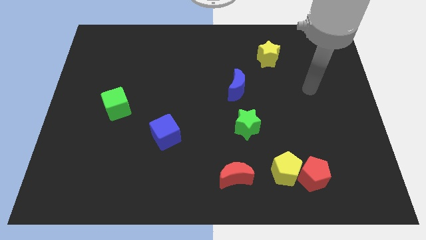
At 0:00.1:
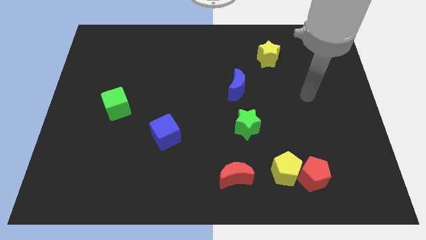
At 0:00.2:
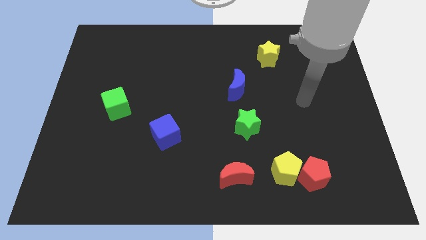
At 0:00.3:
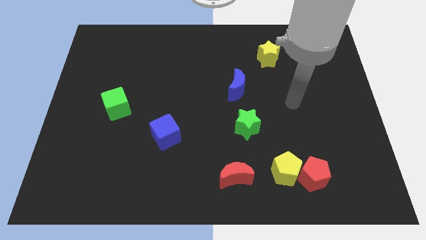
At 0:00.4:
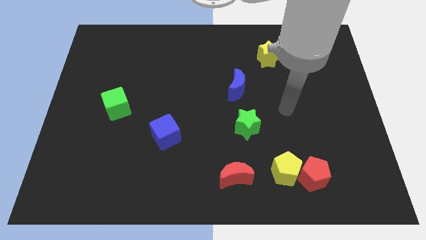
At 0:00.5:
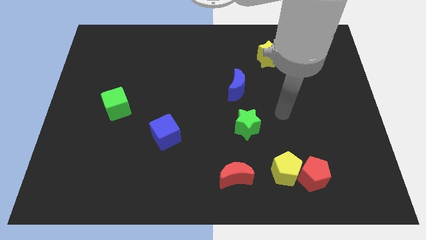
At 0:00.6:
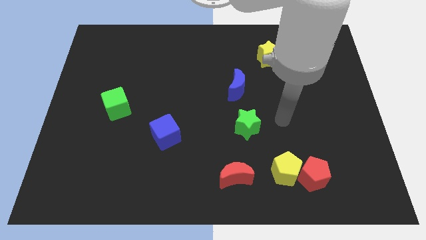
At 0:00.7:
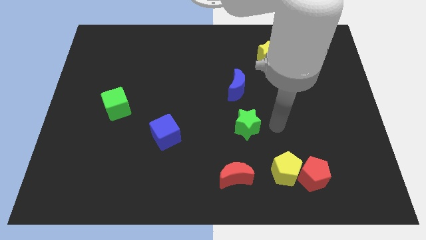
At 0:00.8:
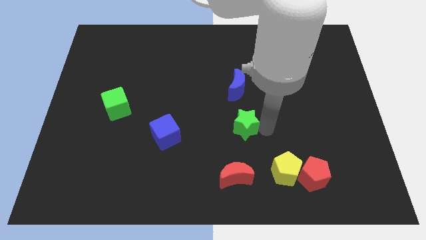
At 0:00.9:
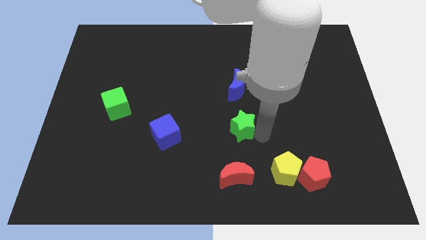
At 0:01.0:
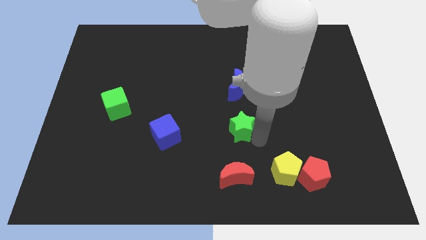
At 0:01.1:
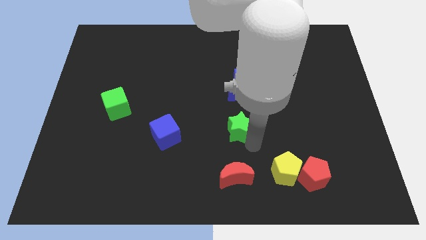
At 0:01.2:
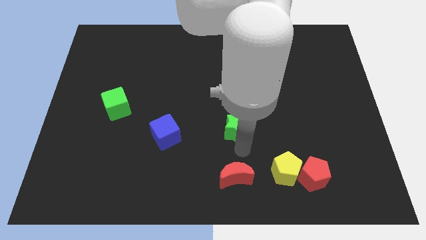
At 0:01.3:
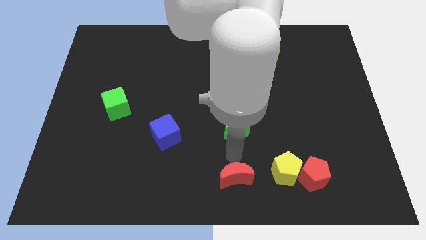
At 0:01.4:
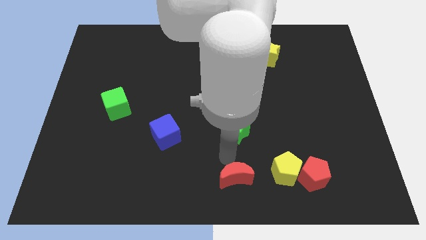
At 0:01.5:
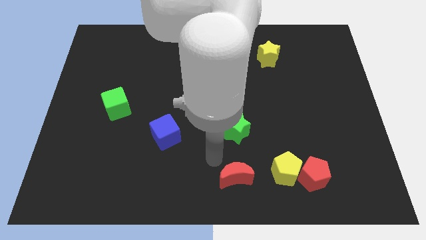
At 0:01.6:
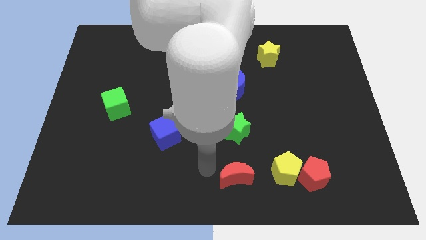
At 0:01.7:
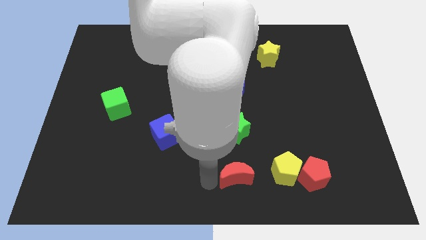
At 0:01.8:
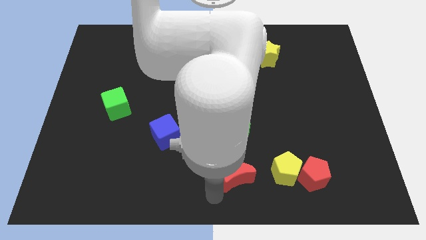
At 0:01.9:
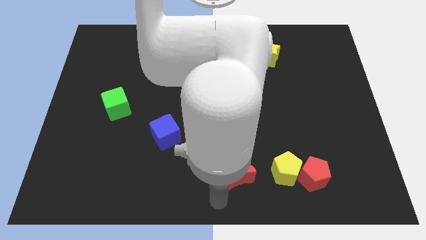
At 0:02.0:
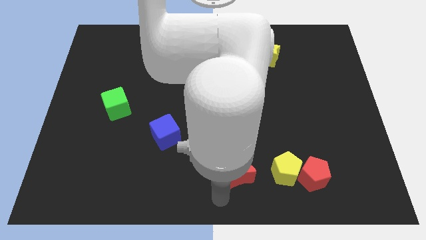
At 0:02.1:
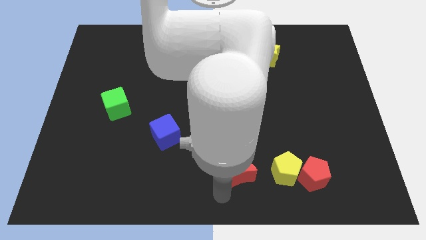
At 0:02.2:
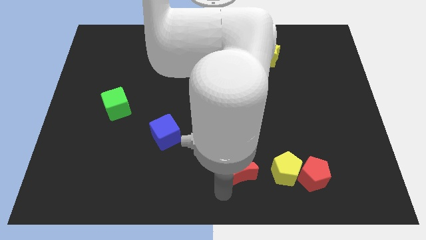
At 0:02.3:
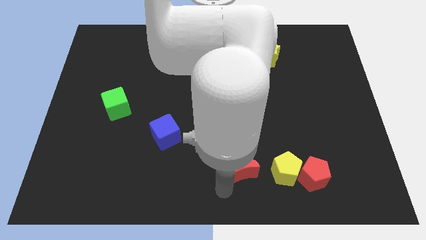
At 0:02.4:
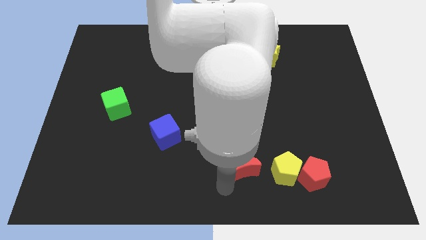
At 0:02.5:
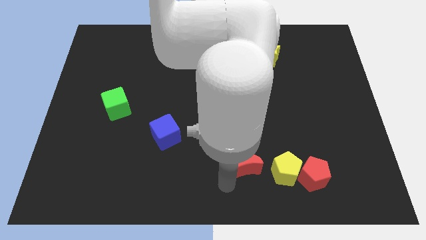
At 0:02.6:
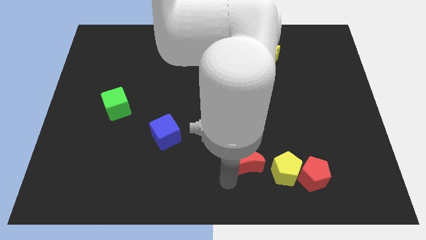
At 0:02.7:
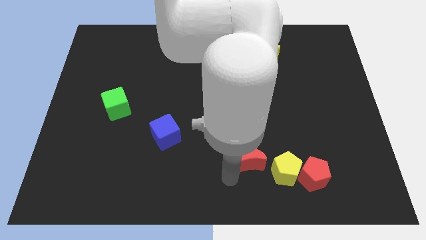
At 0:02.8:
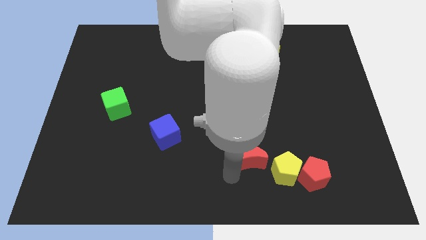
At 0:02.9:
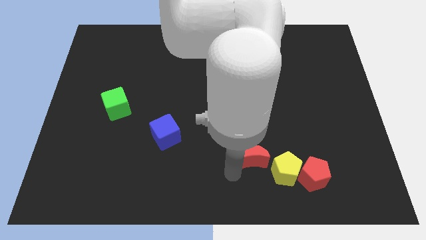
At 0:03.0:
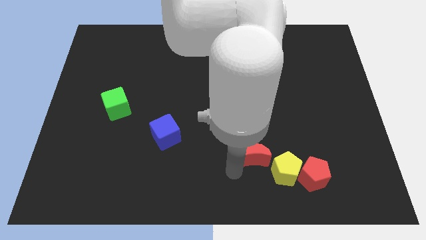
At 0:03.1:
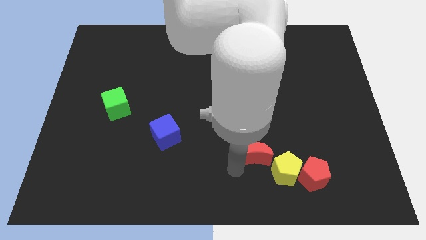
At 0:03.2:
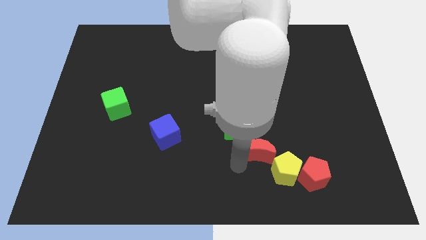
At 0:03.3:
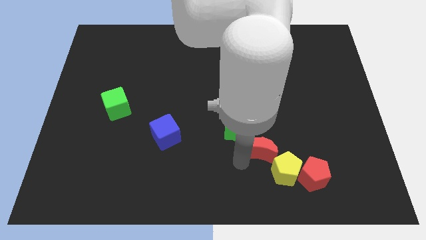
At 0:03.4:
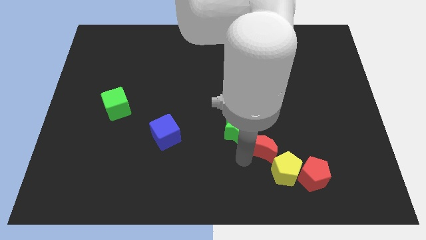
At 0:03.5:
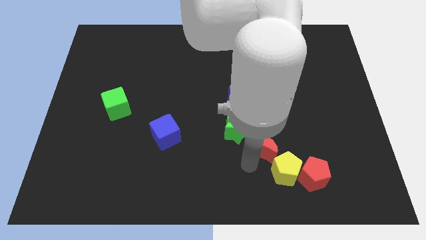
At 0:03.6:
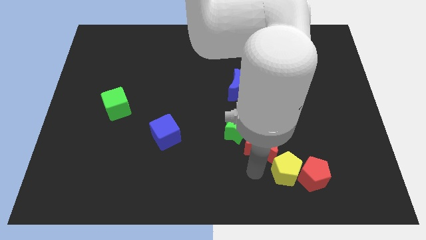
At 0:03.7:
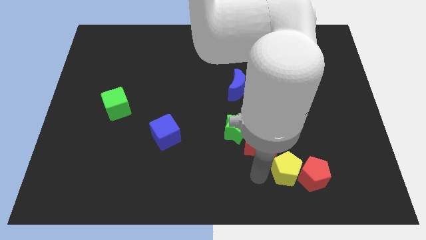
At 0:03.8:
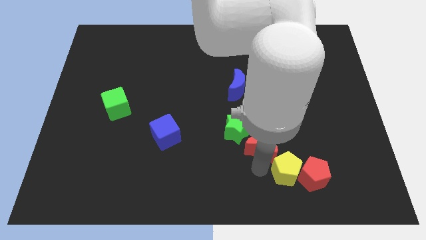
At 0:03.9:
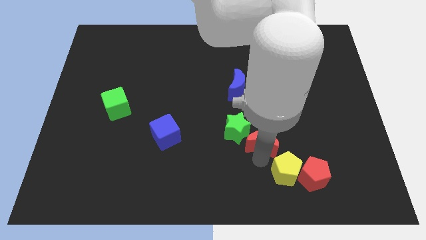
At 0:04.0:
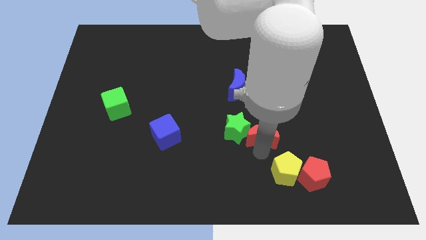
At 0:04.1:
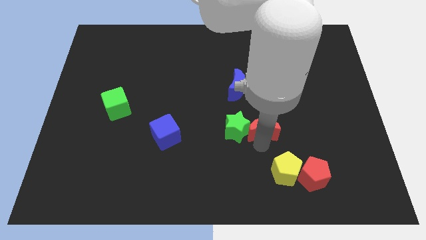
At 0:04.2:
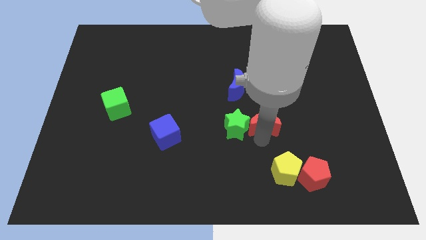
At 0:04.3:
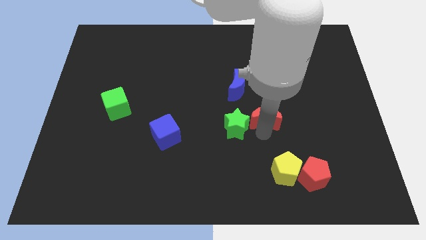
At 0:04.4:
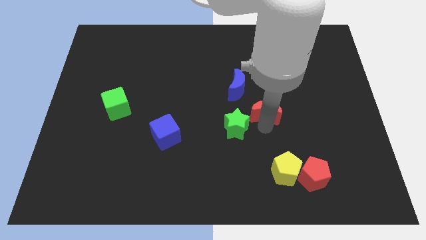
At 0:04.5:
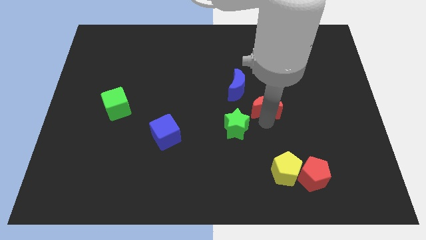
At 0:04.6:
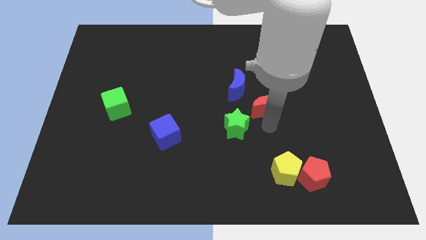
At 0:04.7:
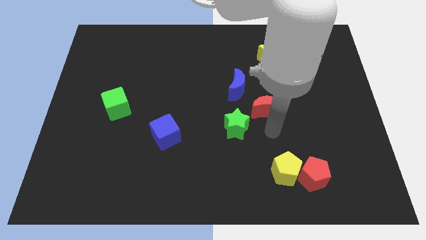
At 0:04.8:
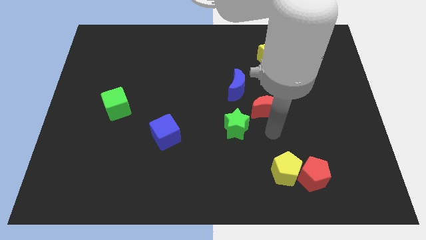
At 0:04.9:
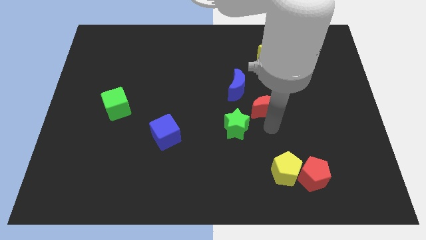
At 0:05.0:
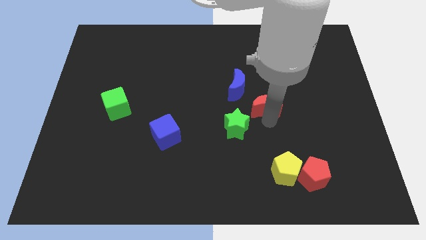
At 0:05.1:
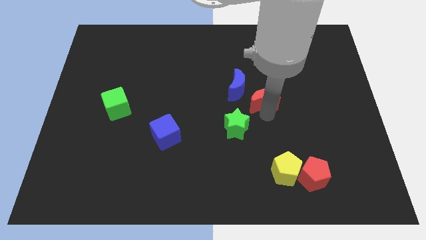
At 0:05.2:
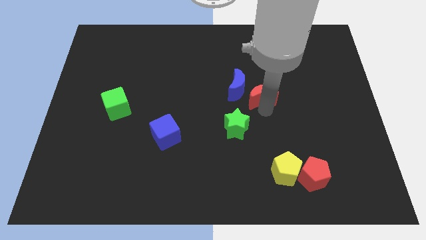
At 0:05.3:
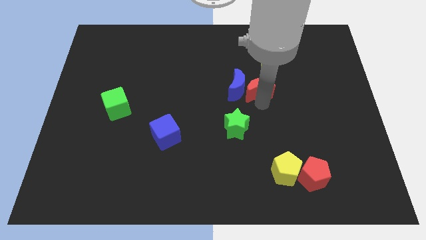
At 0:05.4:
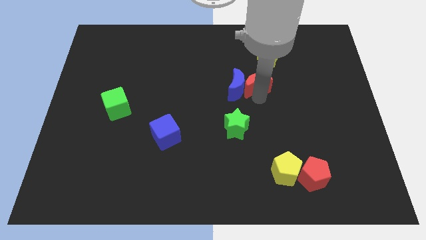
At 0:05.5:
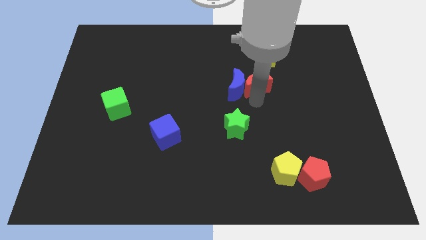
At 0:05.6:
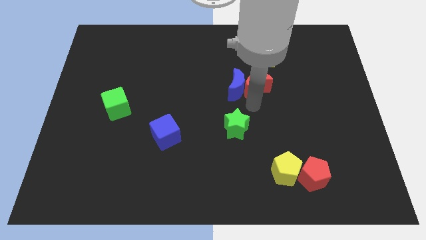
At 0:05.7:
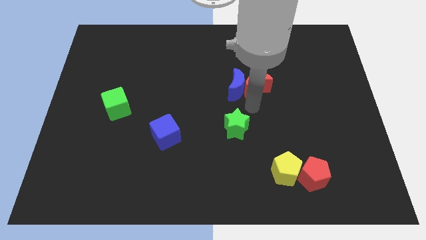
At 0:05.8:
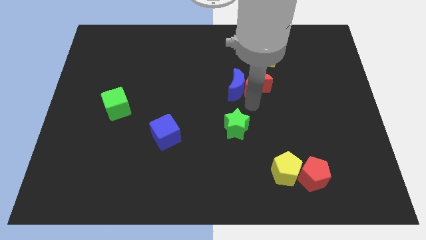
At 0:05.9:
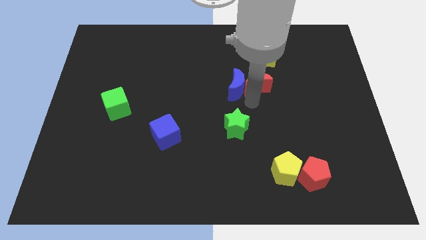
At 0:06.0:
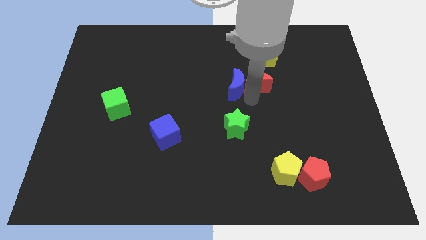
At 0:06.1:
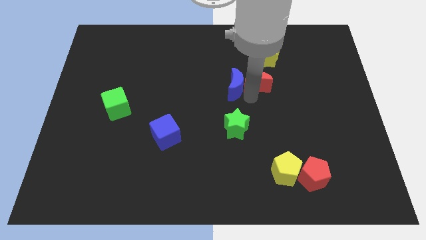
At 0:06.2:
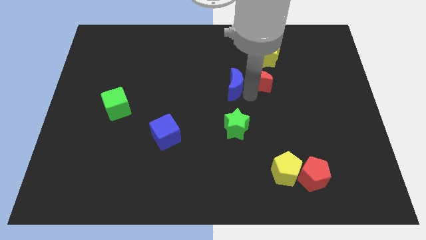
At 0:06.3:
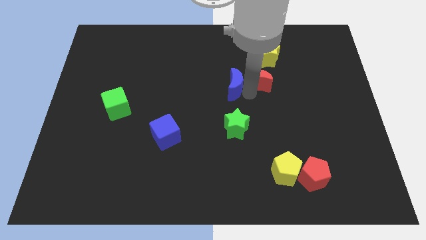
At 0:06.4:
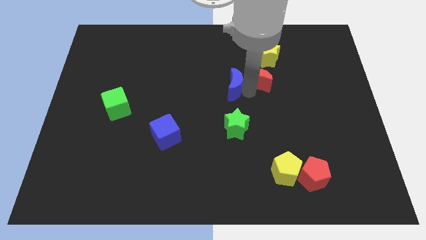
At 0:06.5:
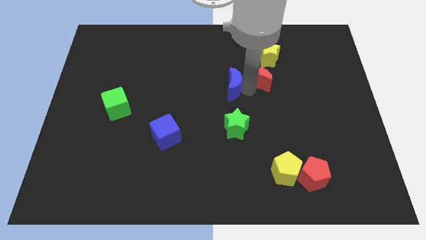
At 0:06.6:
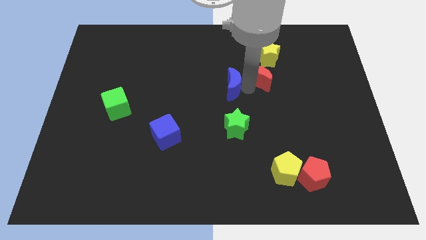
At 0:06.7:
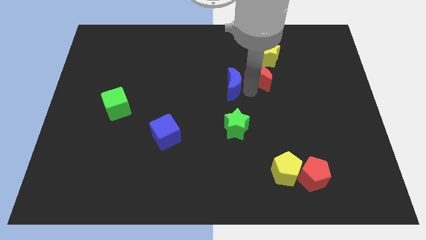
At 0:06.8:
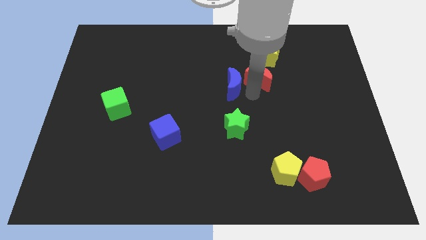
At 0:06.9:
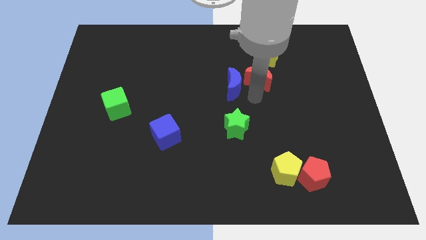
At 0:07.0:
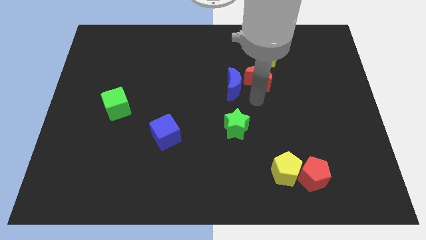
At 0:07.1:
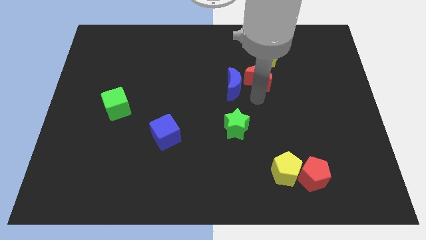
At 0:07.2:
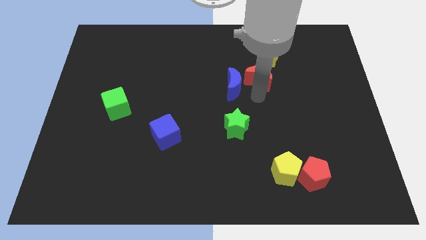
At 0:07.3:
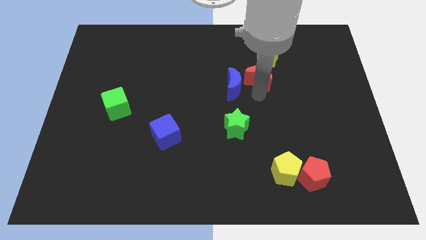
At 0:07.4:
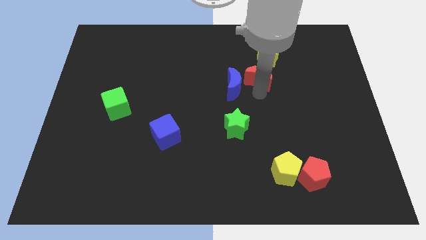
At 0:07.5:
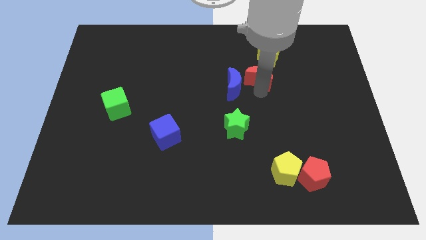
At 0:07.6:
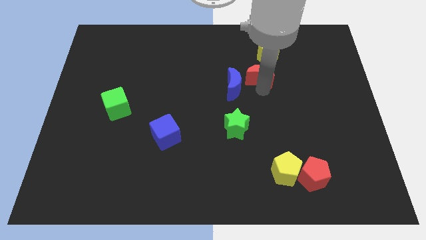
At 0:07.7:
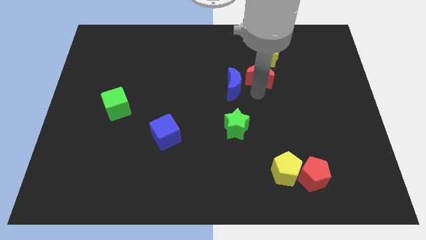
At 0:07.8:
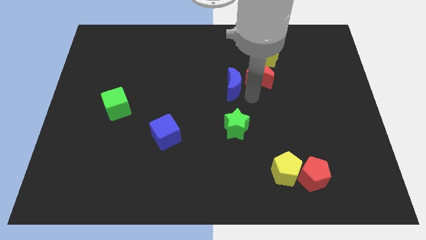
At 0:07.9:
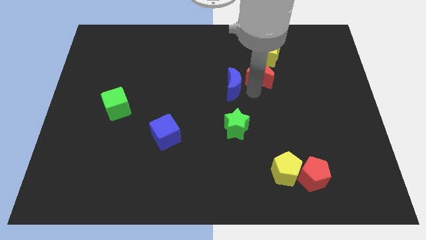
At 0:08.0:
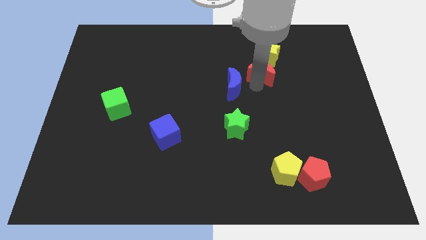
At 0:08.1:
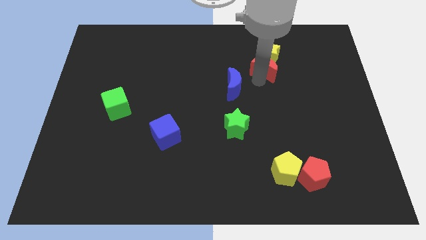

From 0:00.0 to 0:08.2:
put the red moon next to the yellow star
